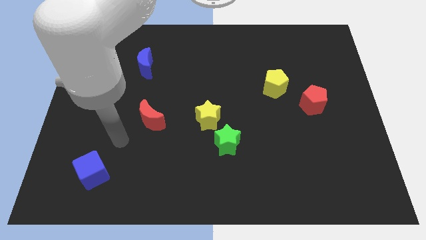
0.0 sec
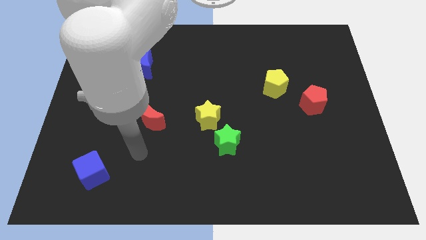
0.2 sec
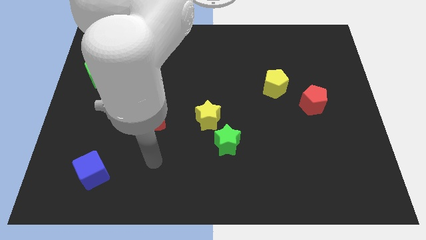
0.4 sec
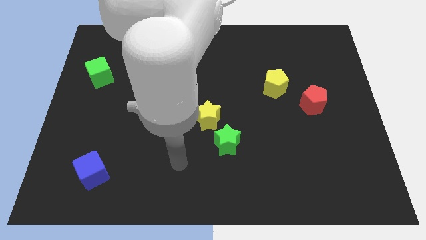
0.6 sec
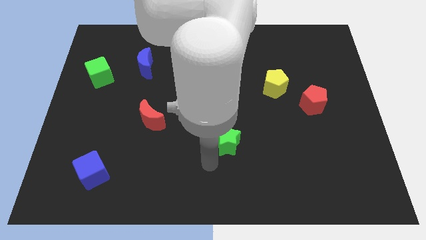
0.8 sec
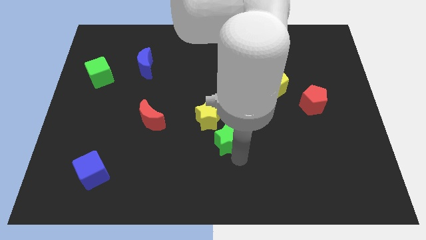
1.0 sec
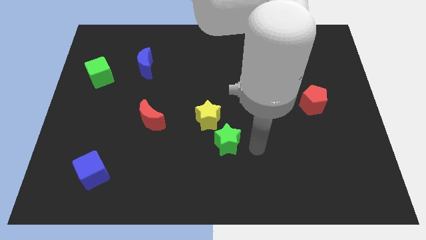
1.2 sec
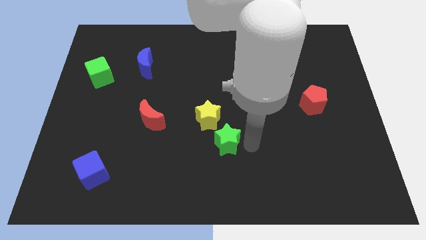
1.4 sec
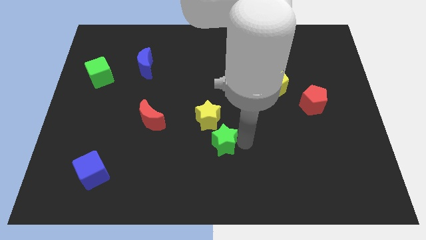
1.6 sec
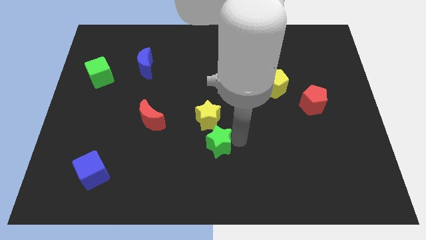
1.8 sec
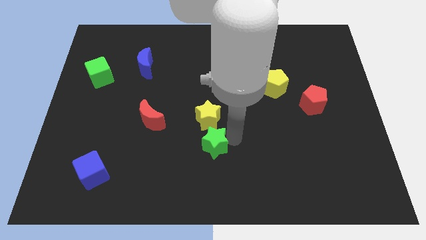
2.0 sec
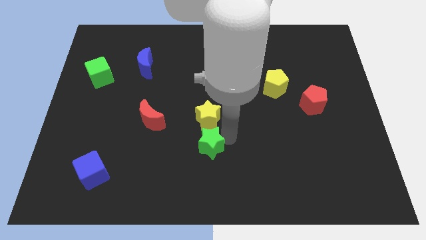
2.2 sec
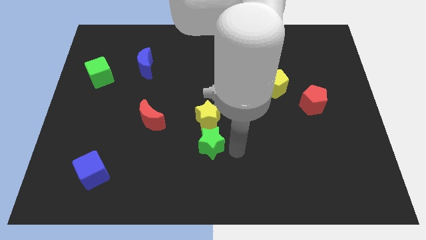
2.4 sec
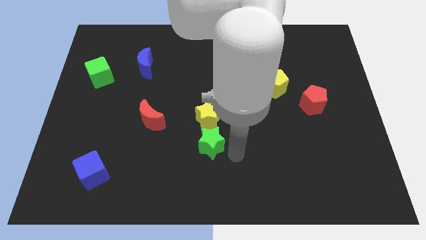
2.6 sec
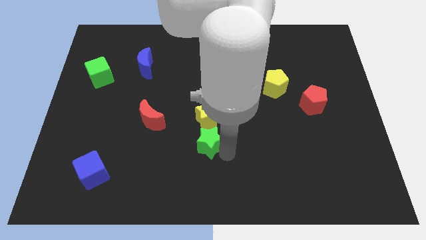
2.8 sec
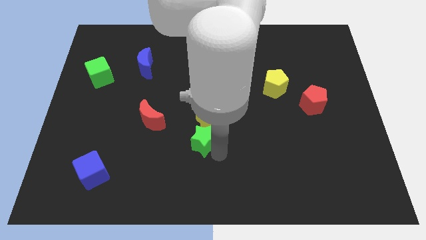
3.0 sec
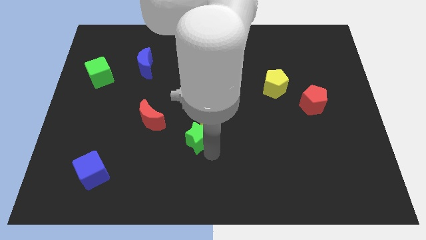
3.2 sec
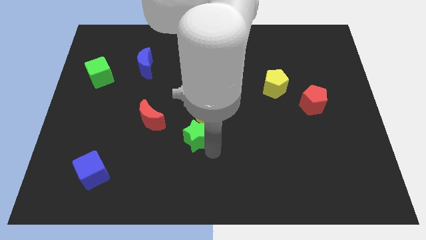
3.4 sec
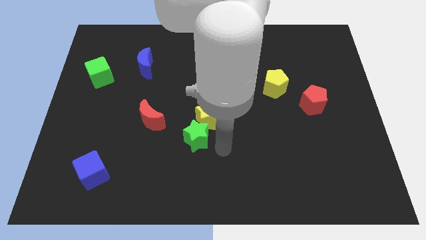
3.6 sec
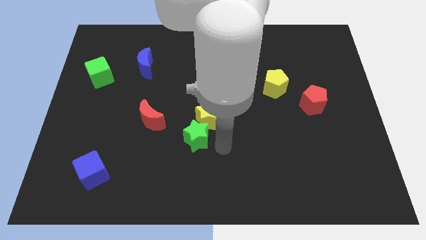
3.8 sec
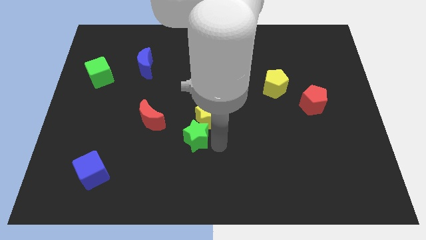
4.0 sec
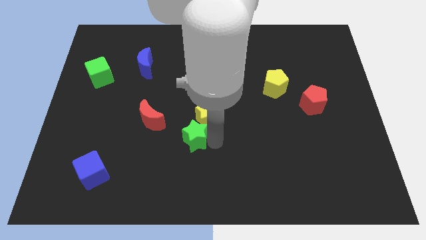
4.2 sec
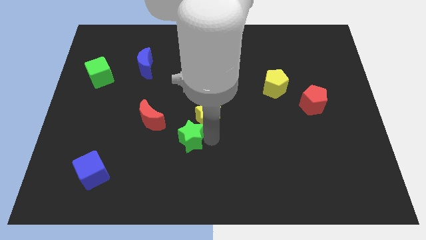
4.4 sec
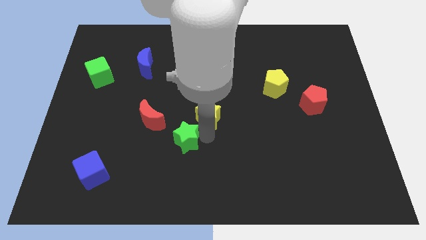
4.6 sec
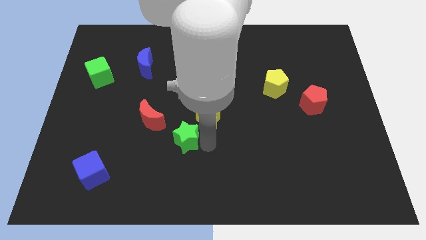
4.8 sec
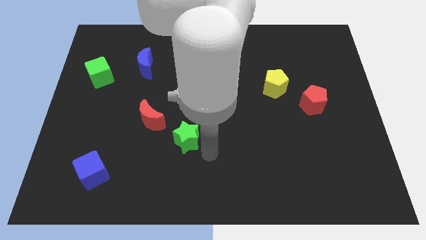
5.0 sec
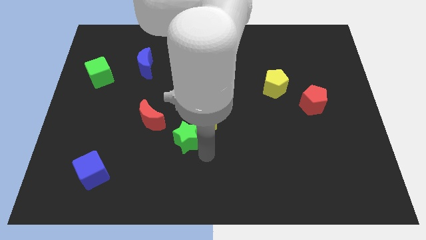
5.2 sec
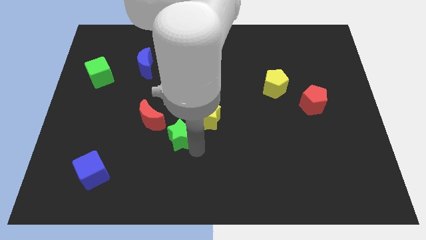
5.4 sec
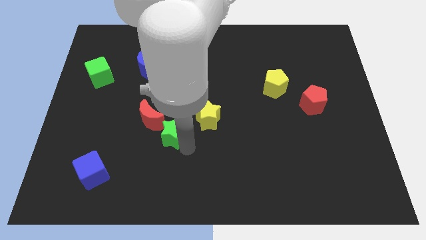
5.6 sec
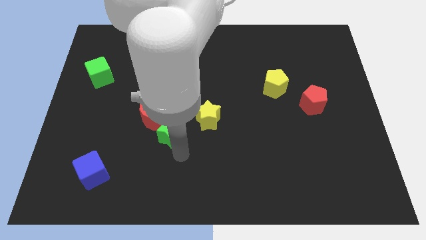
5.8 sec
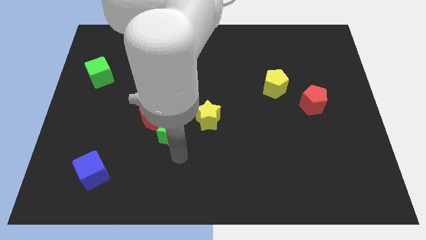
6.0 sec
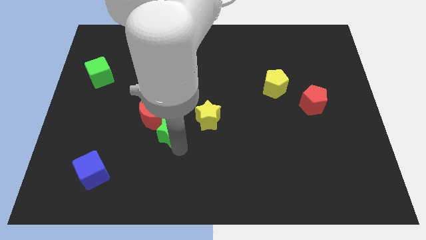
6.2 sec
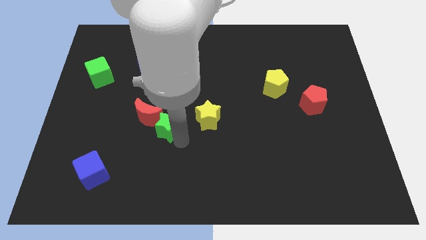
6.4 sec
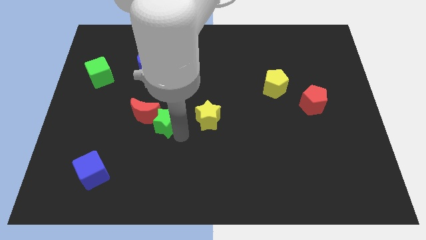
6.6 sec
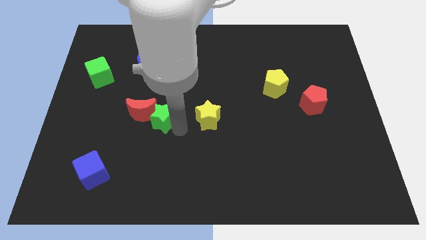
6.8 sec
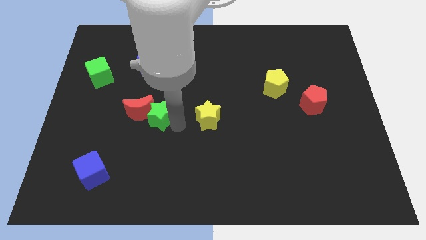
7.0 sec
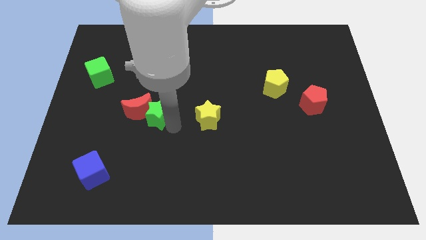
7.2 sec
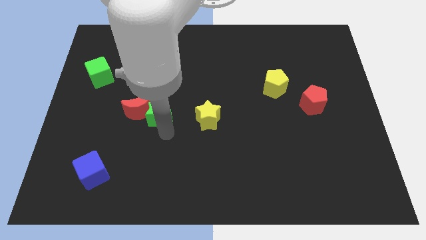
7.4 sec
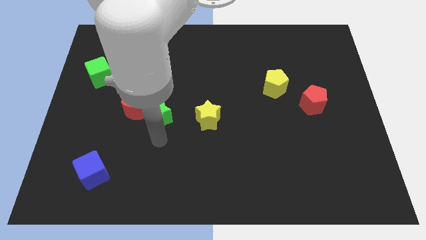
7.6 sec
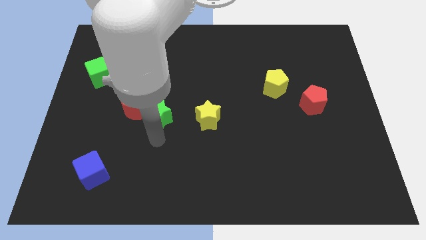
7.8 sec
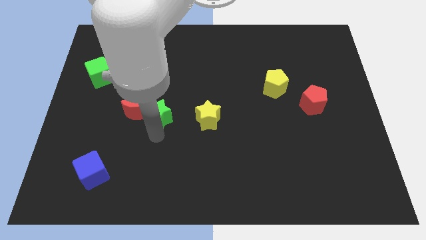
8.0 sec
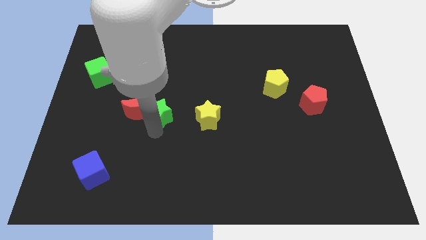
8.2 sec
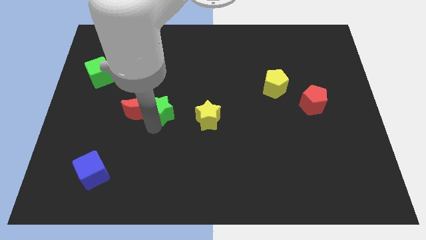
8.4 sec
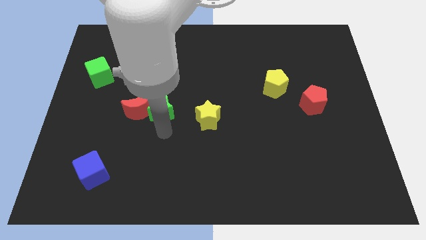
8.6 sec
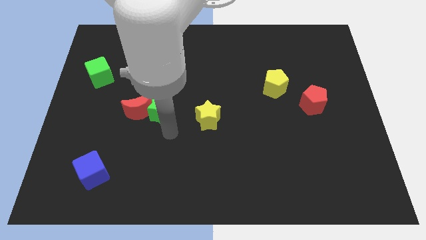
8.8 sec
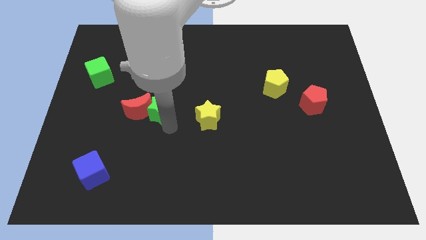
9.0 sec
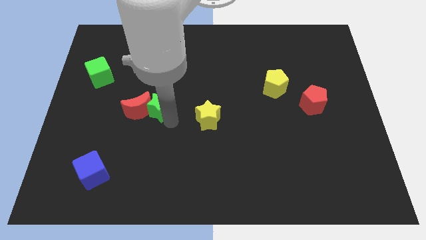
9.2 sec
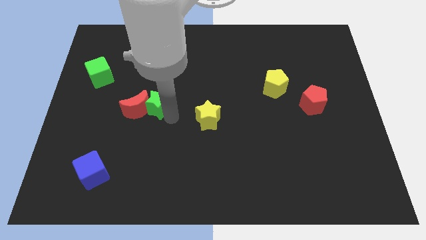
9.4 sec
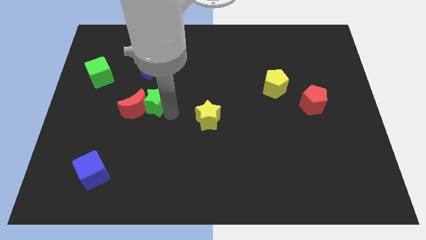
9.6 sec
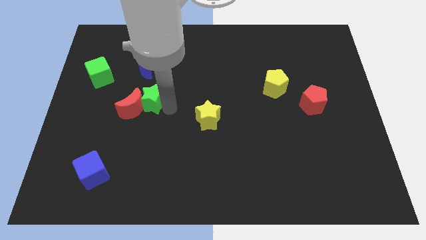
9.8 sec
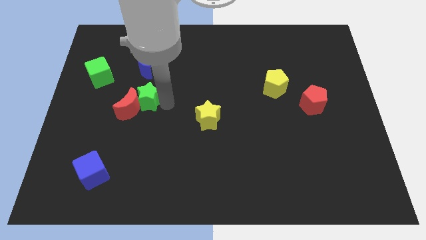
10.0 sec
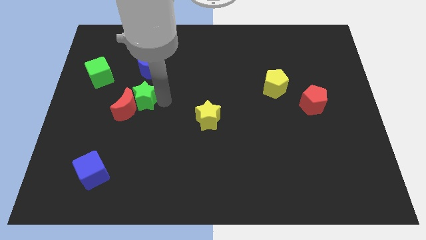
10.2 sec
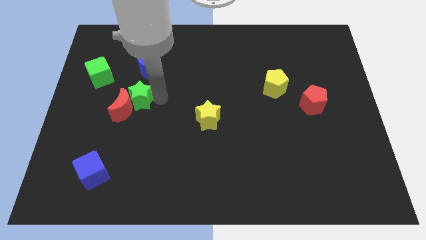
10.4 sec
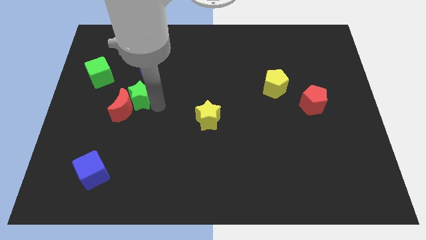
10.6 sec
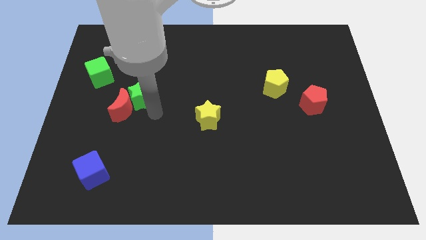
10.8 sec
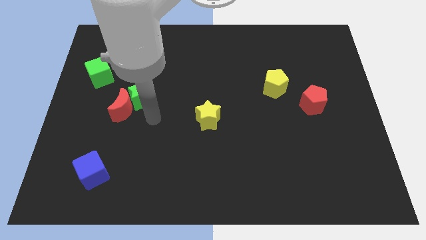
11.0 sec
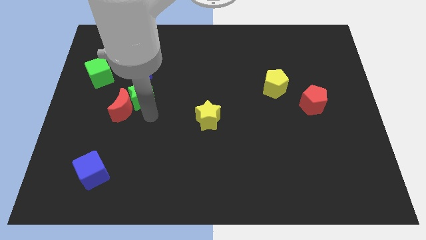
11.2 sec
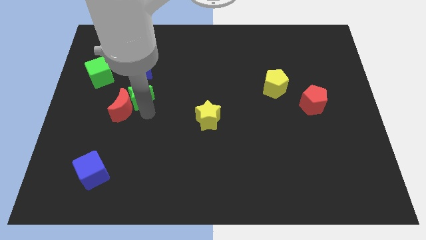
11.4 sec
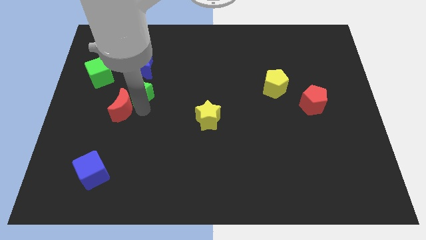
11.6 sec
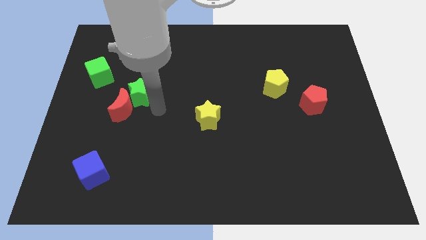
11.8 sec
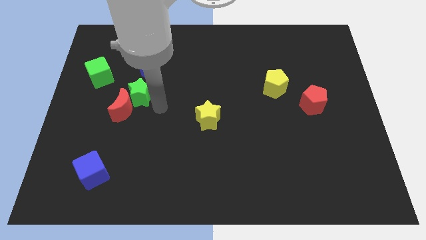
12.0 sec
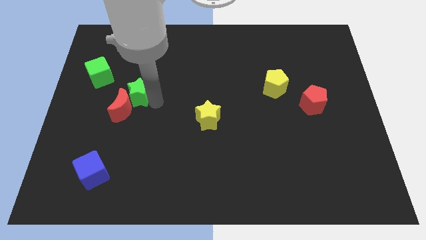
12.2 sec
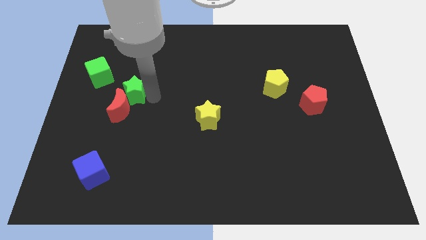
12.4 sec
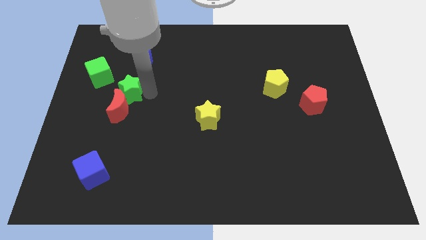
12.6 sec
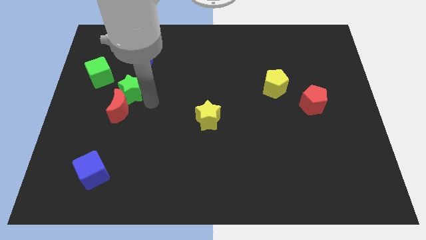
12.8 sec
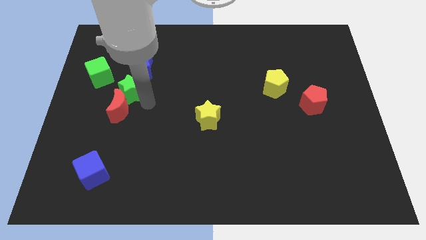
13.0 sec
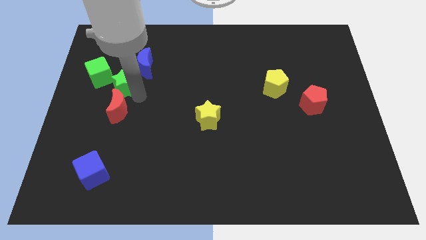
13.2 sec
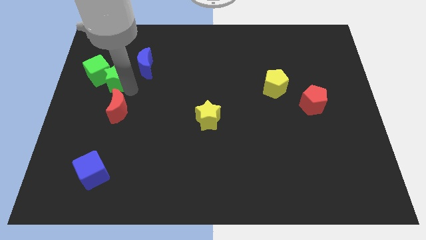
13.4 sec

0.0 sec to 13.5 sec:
push the green star close to the green cube

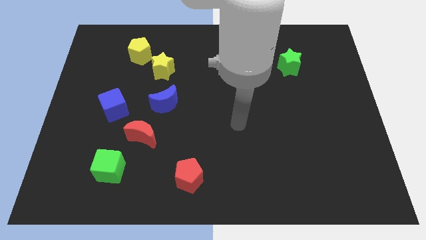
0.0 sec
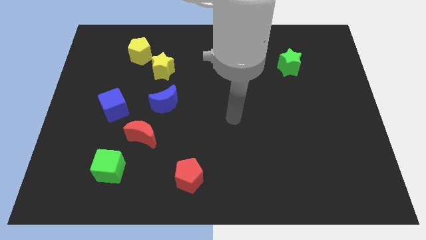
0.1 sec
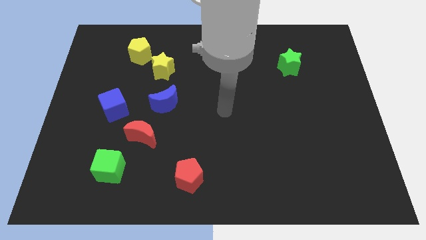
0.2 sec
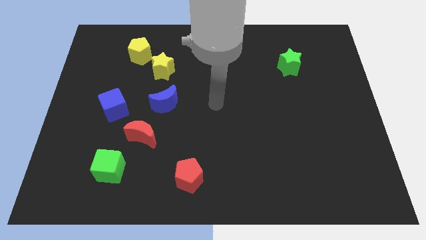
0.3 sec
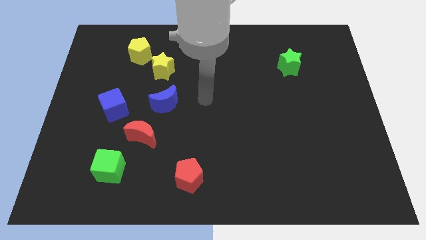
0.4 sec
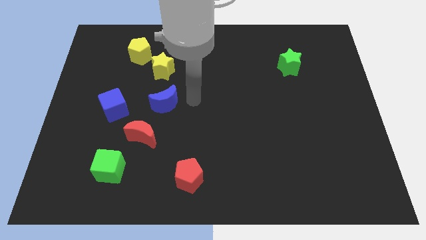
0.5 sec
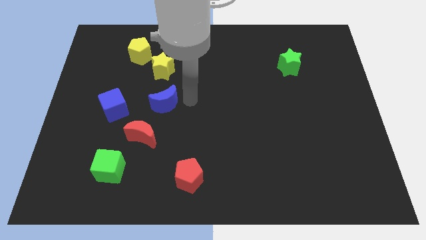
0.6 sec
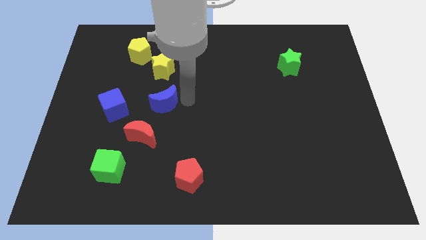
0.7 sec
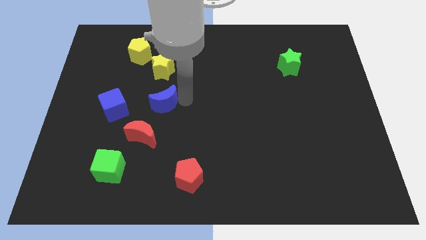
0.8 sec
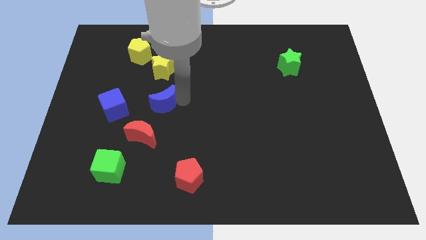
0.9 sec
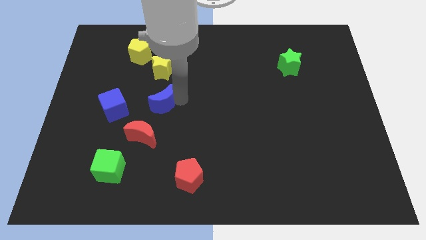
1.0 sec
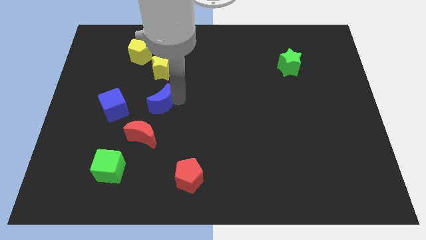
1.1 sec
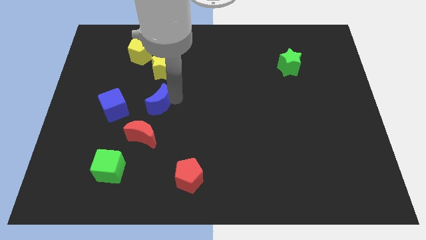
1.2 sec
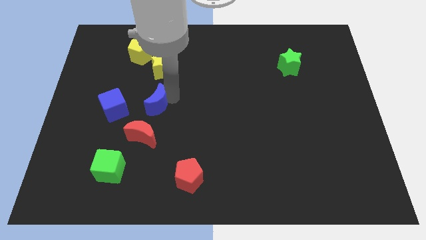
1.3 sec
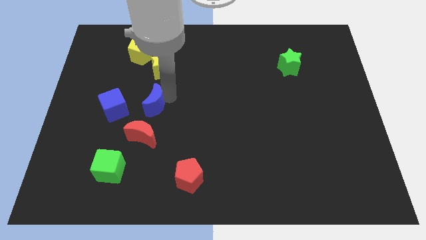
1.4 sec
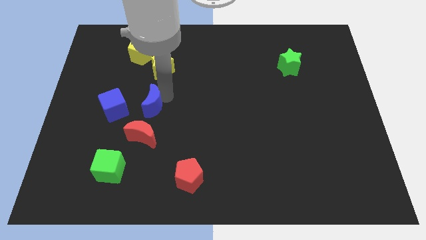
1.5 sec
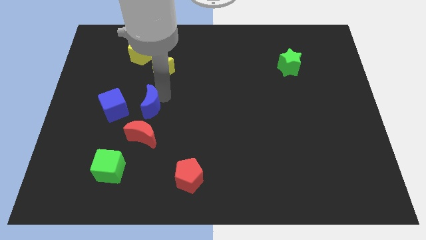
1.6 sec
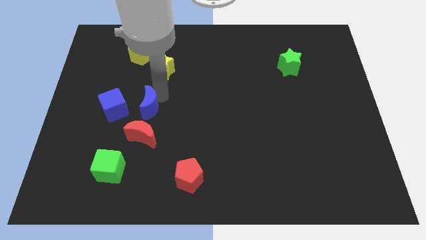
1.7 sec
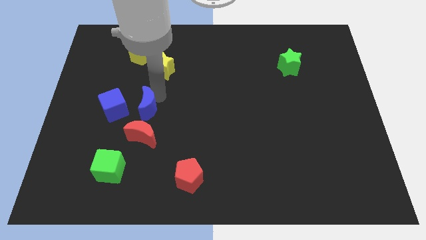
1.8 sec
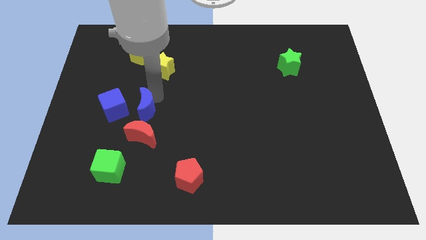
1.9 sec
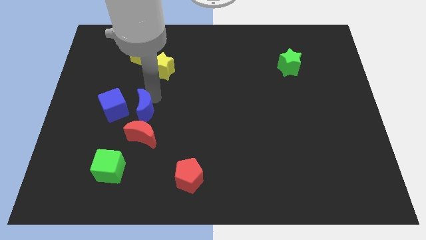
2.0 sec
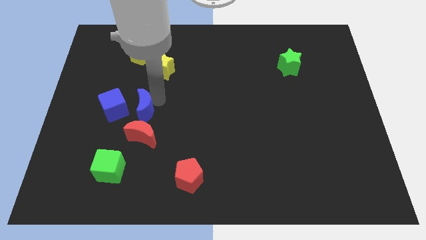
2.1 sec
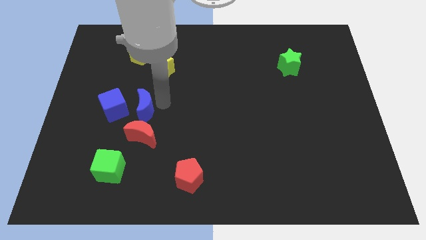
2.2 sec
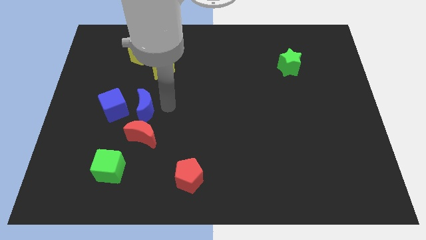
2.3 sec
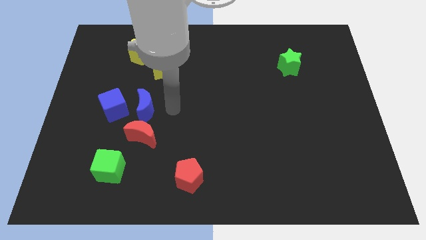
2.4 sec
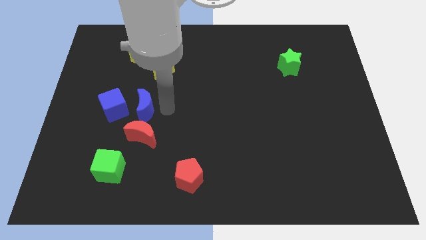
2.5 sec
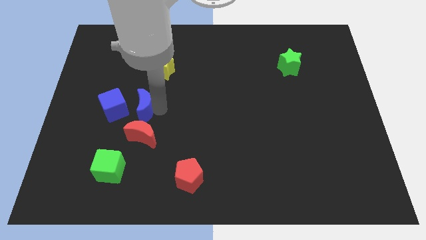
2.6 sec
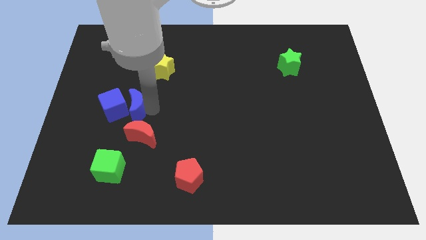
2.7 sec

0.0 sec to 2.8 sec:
slide the blue moon to the blue cube
